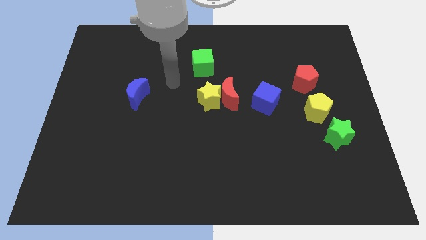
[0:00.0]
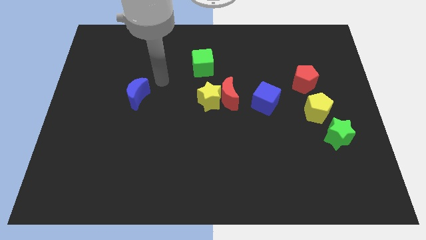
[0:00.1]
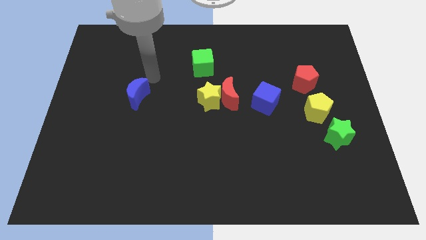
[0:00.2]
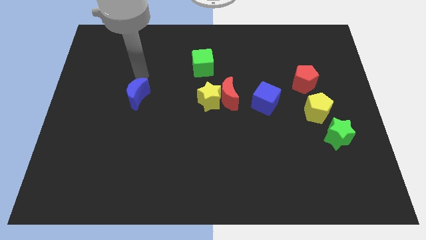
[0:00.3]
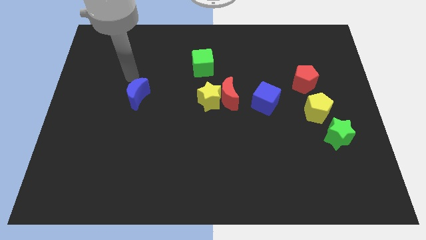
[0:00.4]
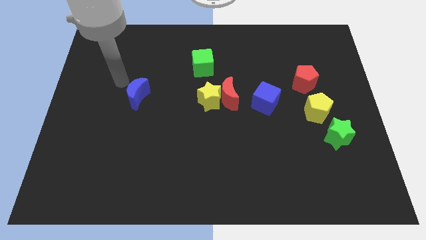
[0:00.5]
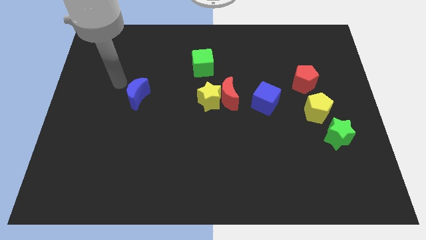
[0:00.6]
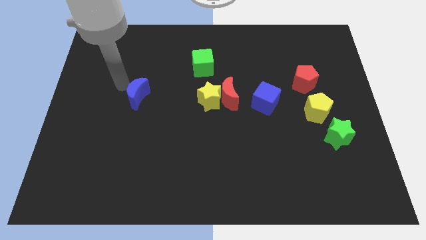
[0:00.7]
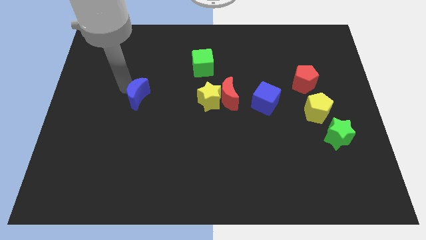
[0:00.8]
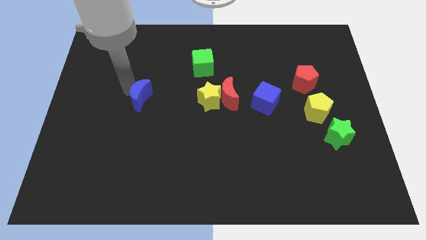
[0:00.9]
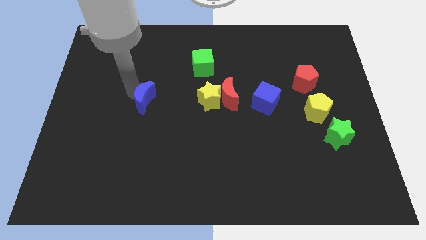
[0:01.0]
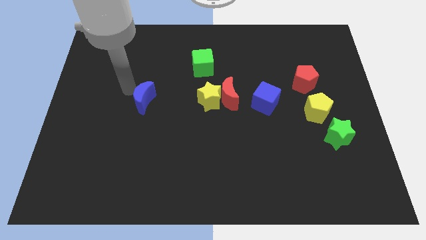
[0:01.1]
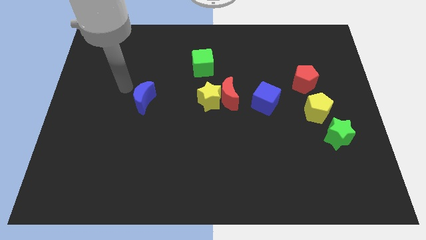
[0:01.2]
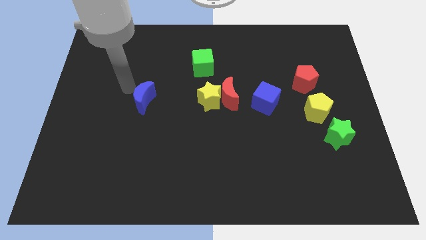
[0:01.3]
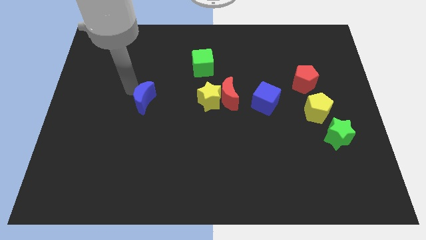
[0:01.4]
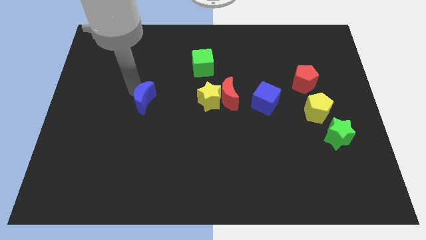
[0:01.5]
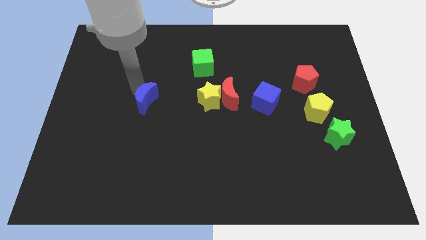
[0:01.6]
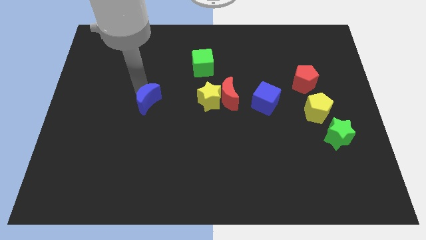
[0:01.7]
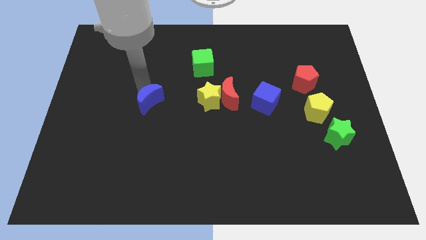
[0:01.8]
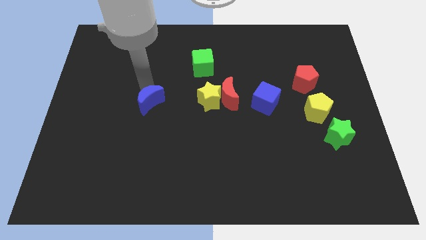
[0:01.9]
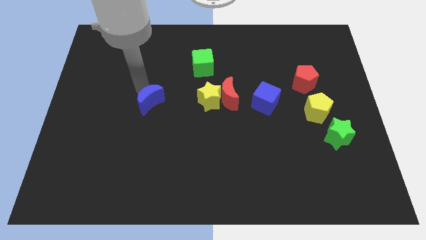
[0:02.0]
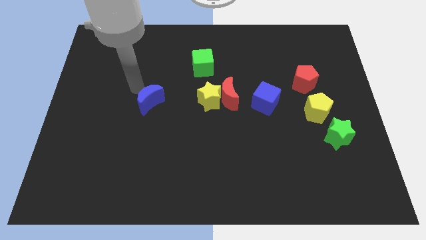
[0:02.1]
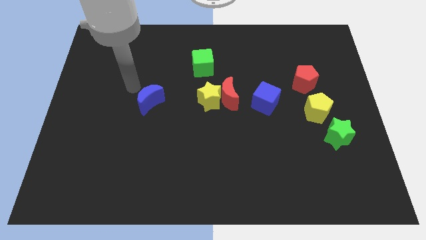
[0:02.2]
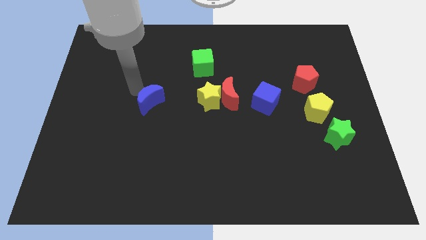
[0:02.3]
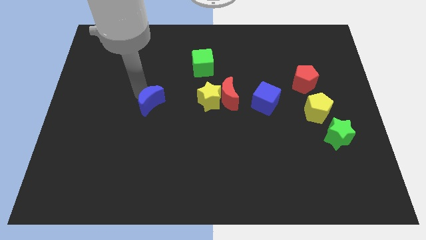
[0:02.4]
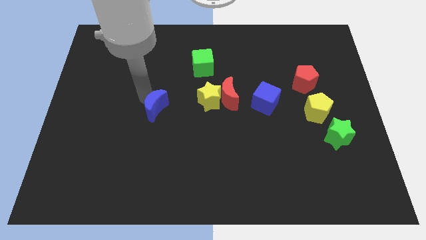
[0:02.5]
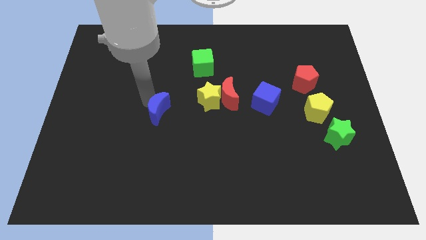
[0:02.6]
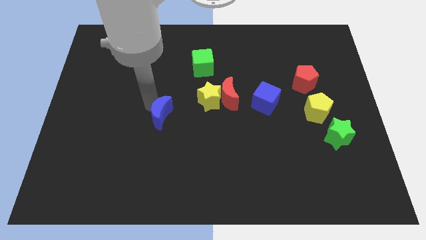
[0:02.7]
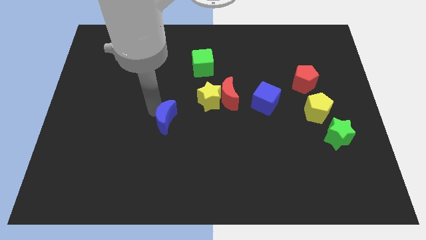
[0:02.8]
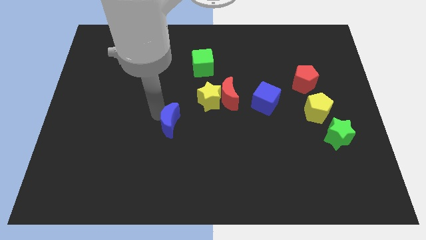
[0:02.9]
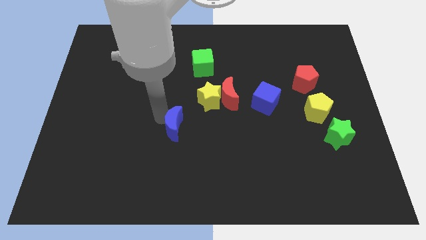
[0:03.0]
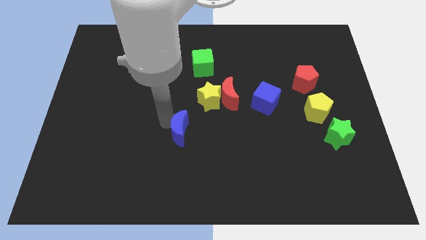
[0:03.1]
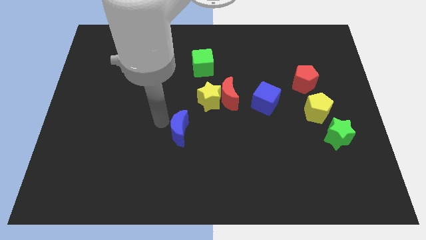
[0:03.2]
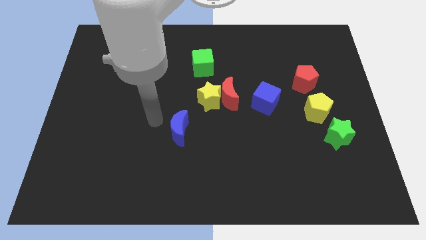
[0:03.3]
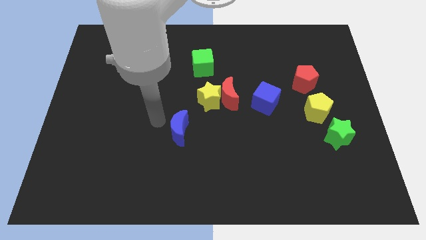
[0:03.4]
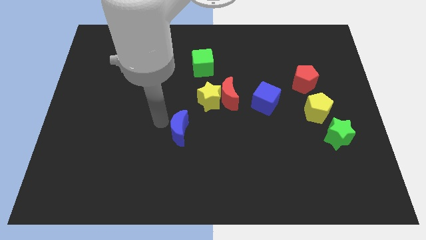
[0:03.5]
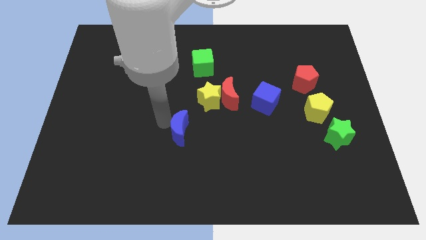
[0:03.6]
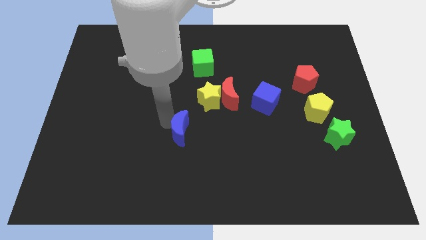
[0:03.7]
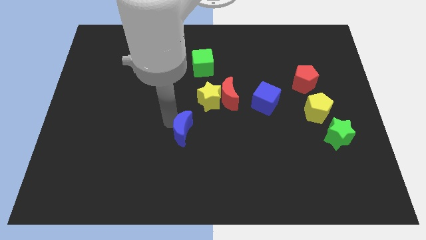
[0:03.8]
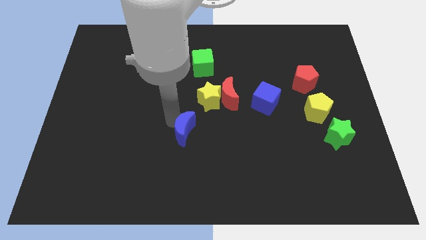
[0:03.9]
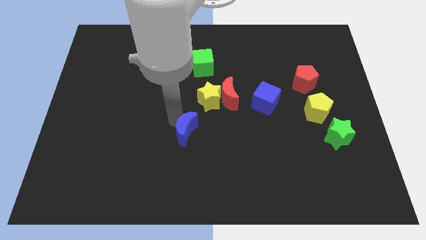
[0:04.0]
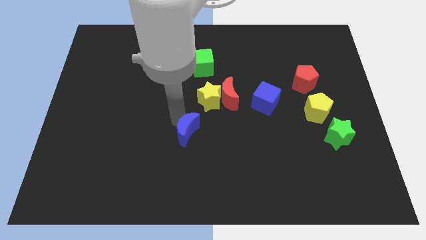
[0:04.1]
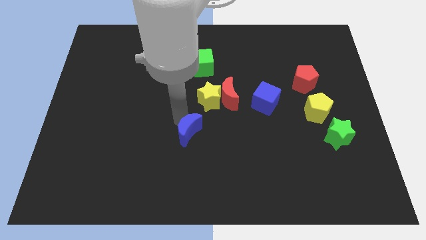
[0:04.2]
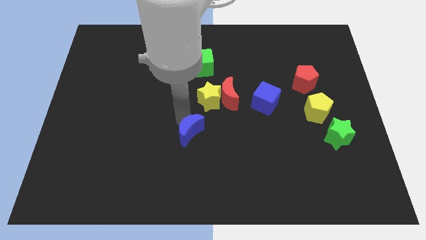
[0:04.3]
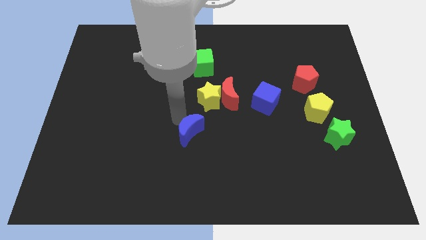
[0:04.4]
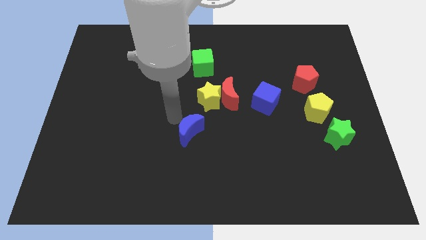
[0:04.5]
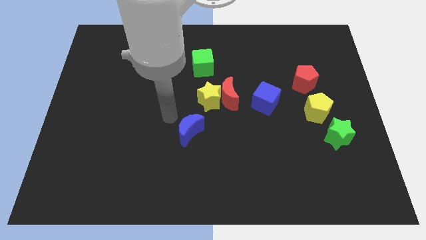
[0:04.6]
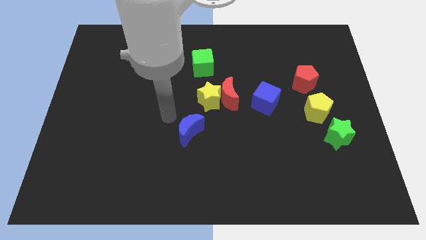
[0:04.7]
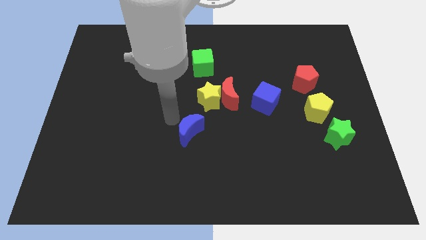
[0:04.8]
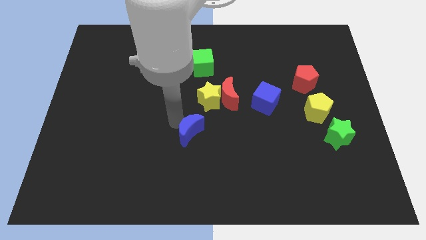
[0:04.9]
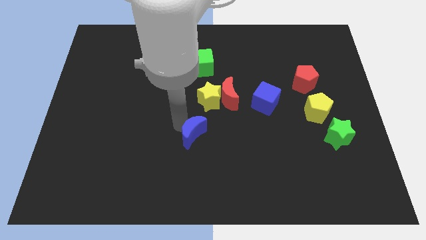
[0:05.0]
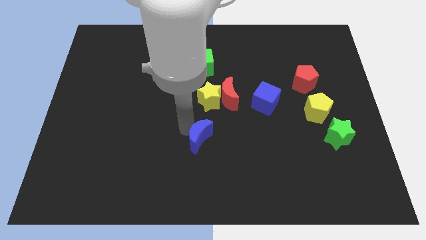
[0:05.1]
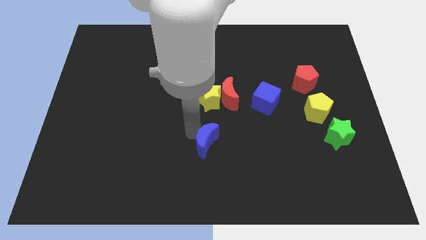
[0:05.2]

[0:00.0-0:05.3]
slide the blue moon diagonally downwards and right

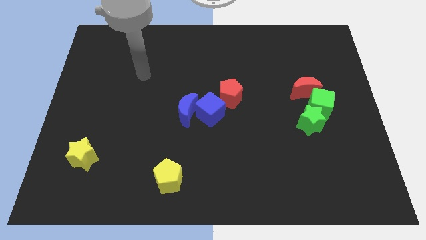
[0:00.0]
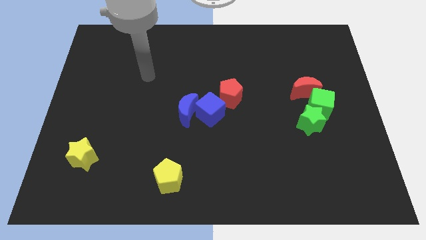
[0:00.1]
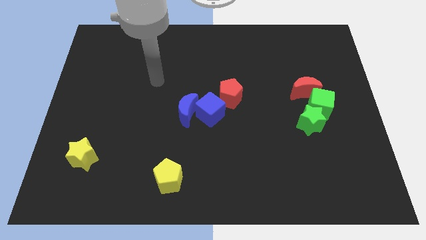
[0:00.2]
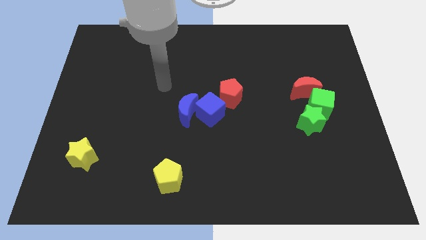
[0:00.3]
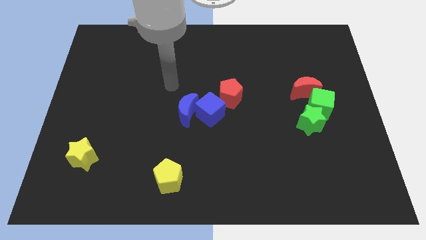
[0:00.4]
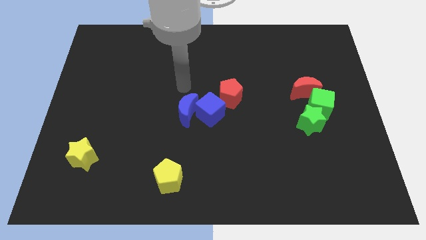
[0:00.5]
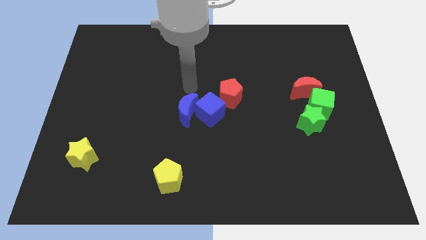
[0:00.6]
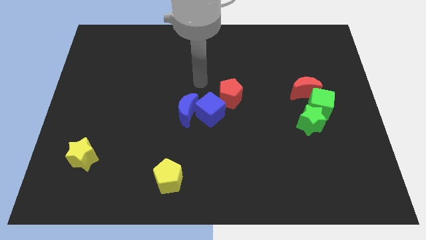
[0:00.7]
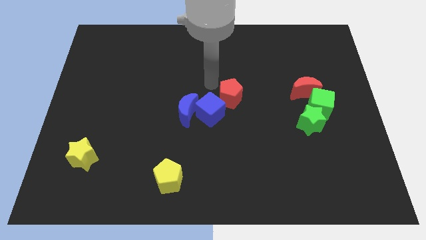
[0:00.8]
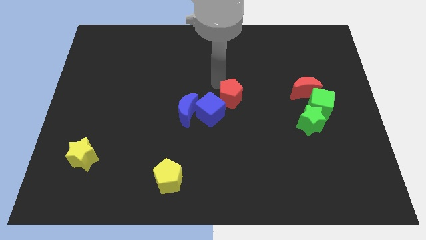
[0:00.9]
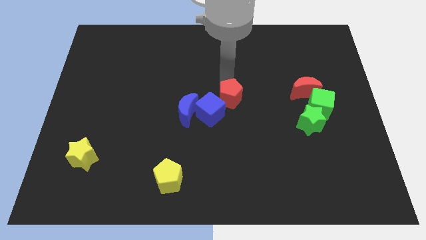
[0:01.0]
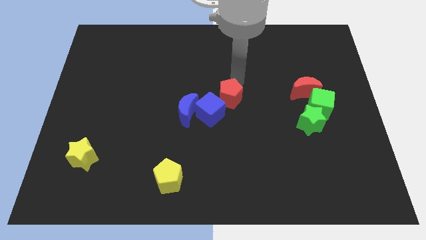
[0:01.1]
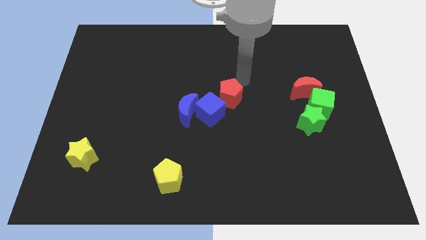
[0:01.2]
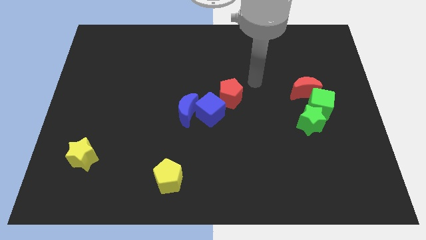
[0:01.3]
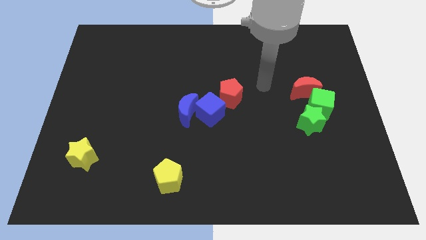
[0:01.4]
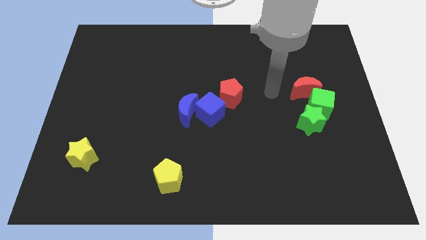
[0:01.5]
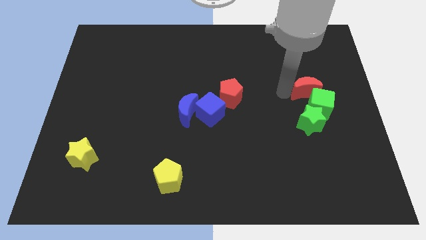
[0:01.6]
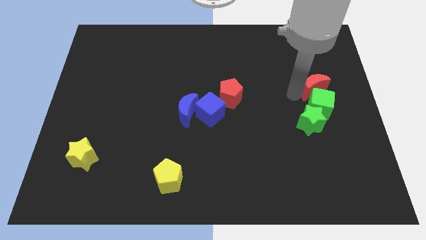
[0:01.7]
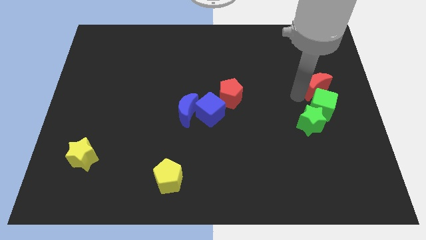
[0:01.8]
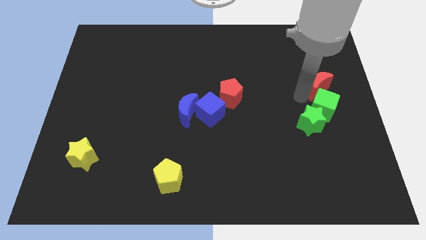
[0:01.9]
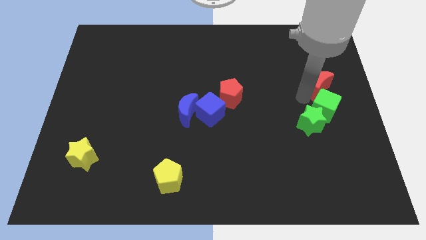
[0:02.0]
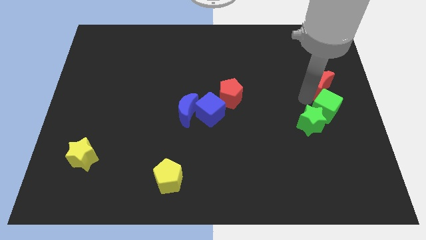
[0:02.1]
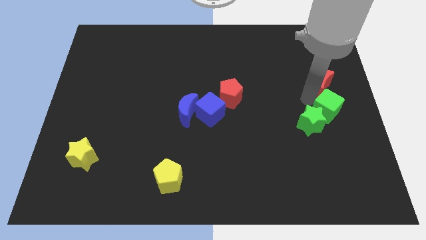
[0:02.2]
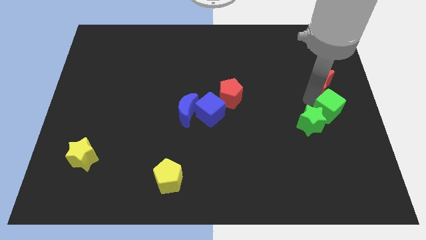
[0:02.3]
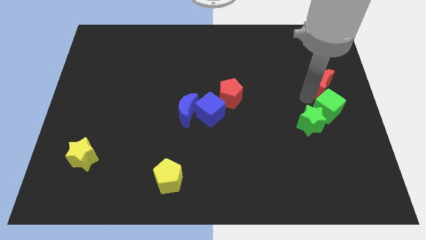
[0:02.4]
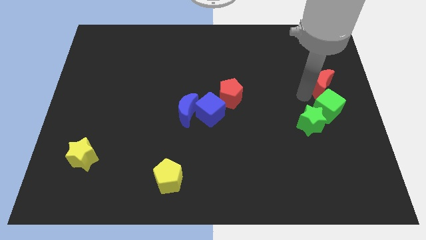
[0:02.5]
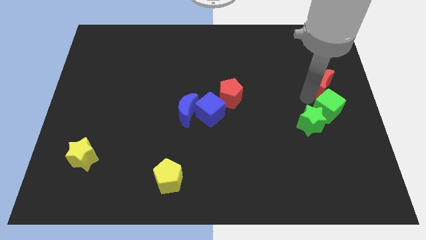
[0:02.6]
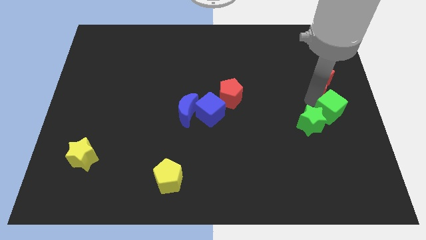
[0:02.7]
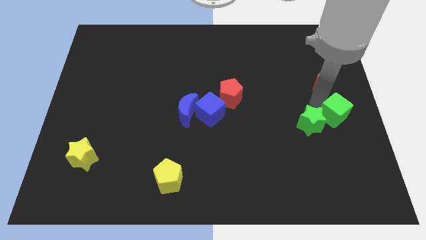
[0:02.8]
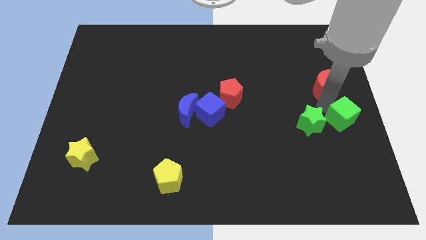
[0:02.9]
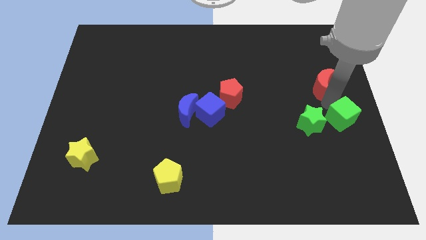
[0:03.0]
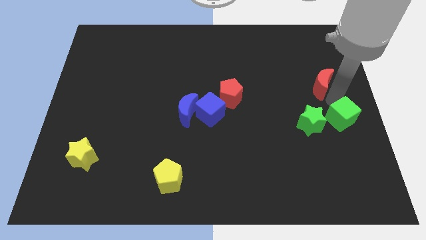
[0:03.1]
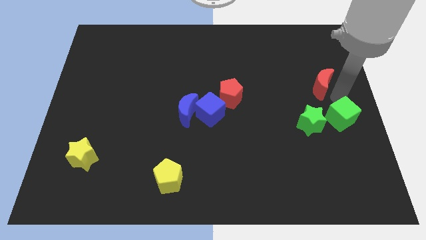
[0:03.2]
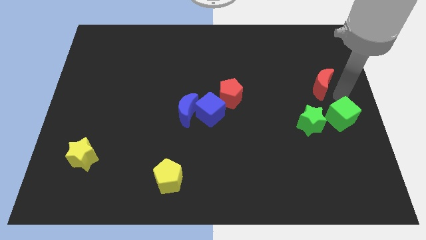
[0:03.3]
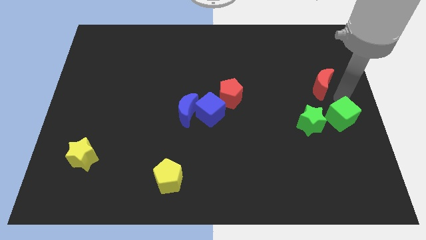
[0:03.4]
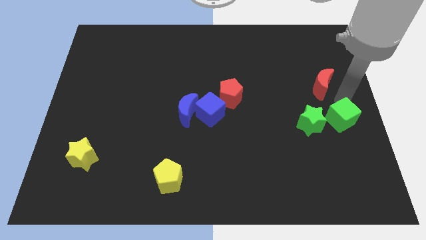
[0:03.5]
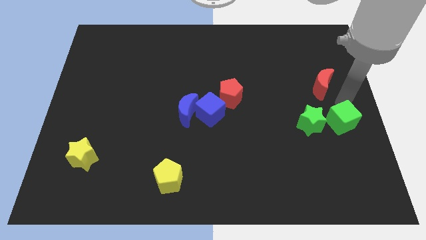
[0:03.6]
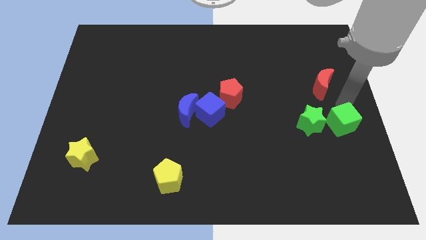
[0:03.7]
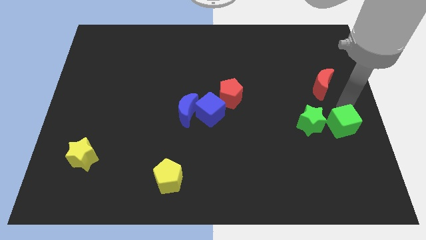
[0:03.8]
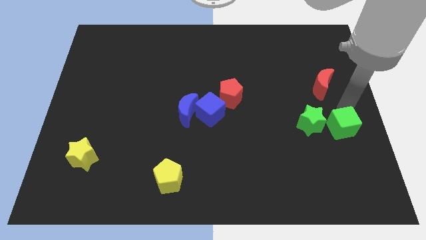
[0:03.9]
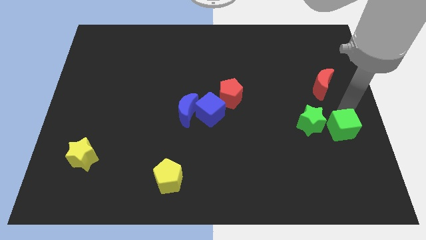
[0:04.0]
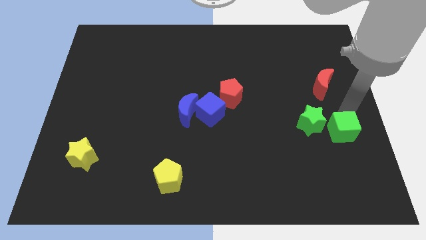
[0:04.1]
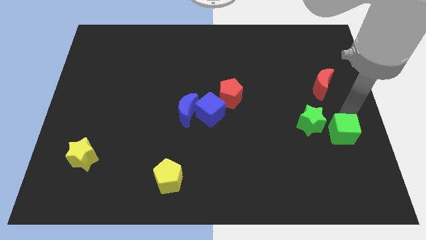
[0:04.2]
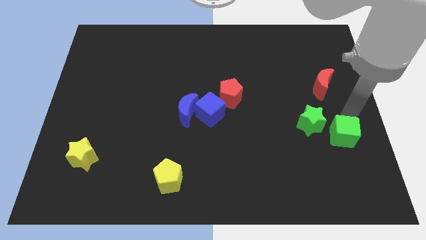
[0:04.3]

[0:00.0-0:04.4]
slightly move the green cube downwards
